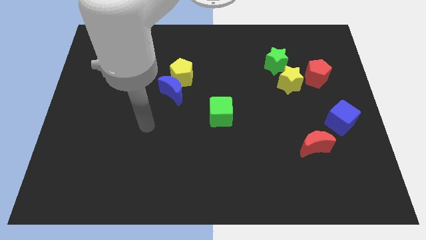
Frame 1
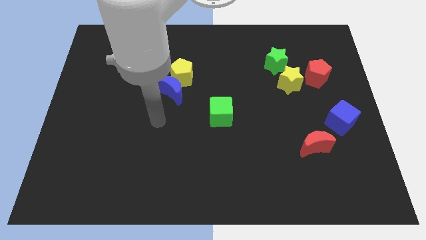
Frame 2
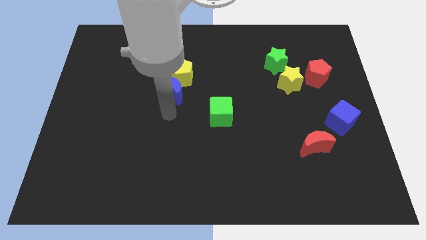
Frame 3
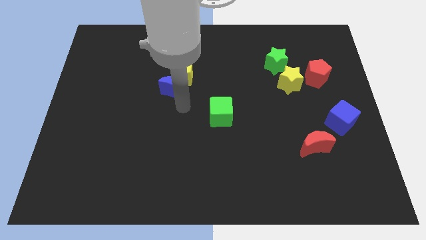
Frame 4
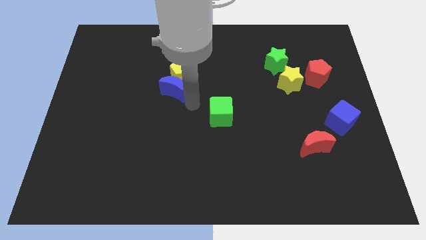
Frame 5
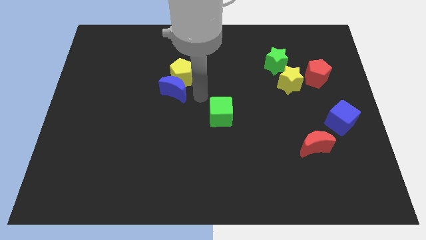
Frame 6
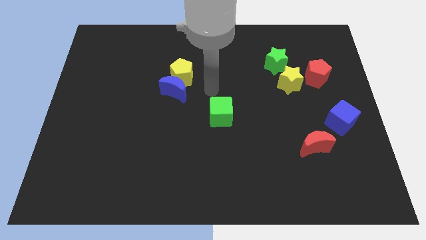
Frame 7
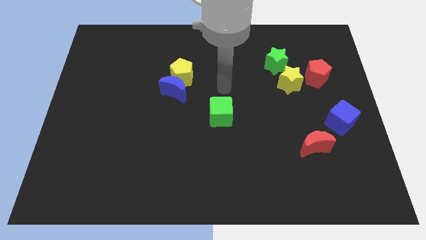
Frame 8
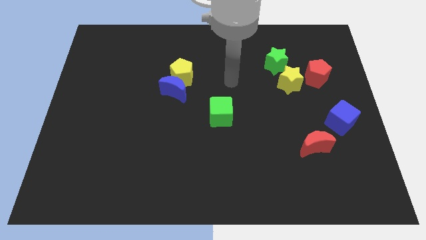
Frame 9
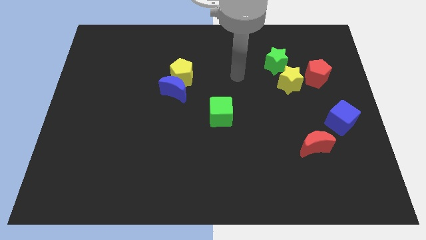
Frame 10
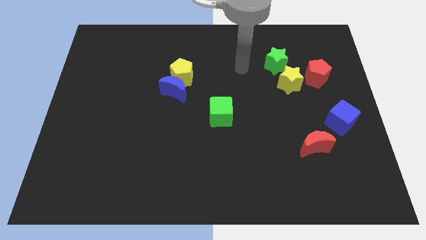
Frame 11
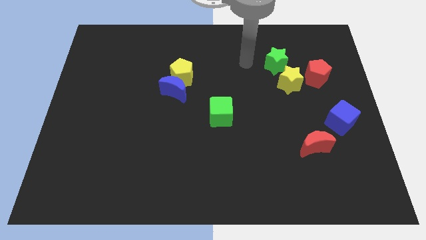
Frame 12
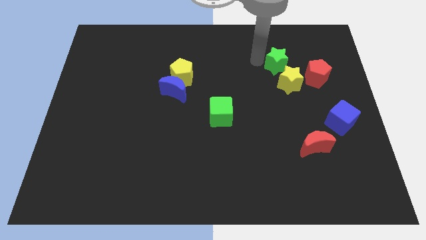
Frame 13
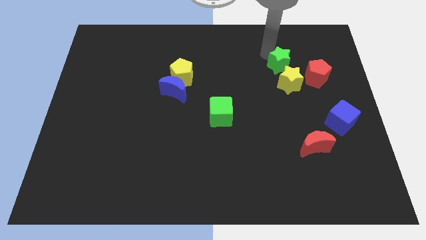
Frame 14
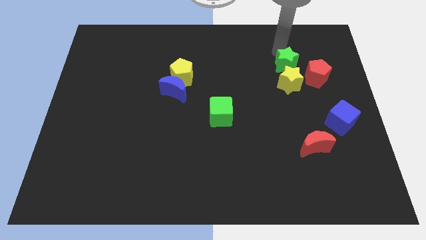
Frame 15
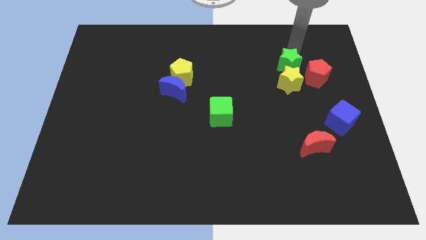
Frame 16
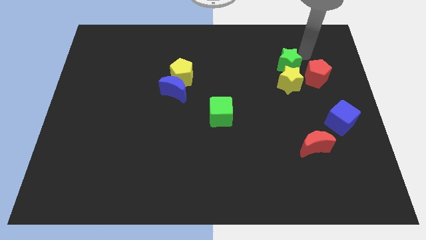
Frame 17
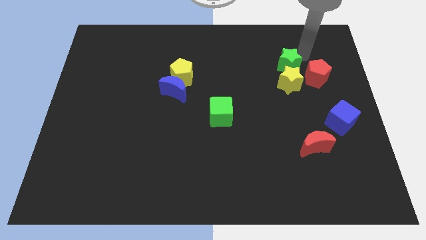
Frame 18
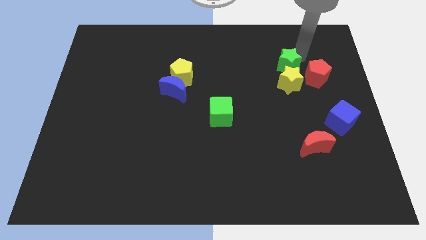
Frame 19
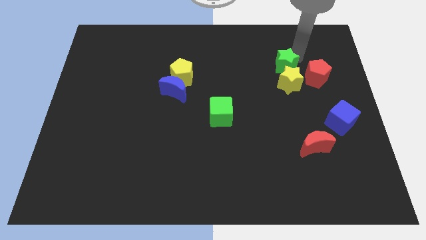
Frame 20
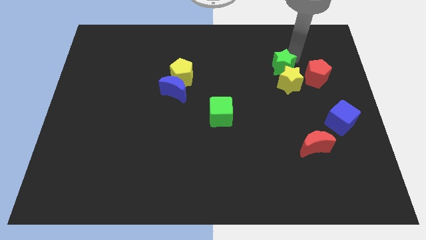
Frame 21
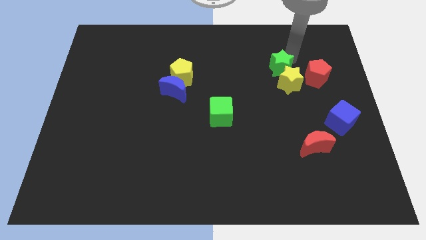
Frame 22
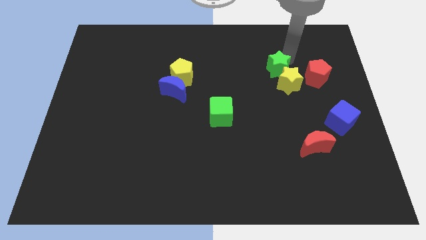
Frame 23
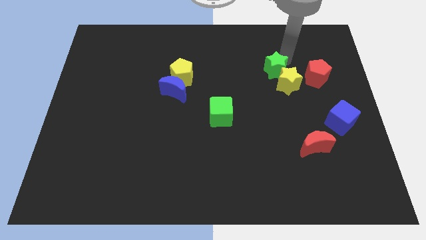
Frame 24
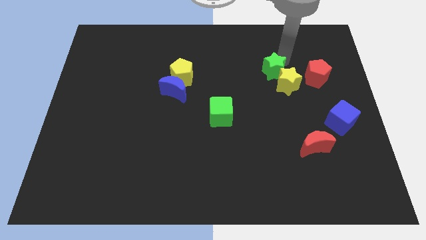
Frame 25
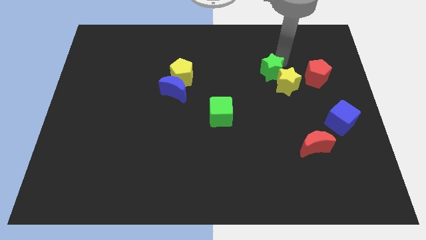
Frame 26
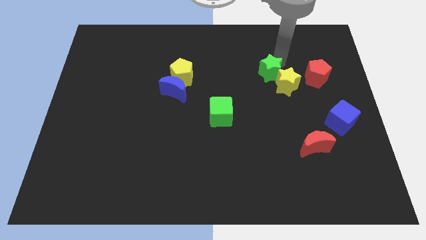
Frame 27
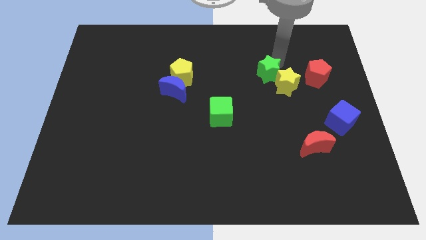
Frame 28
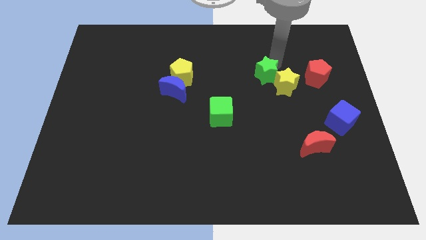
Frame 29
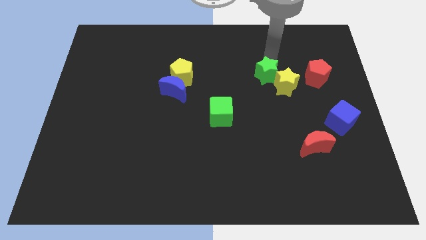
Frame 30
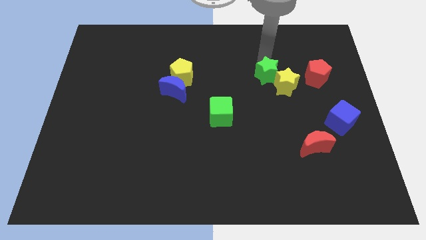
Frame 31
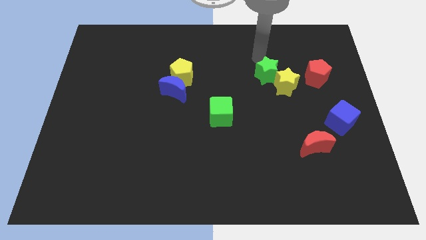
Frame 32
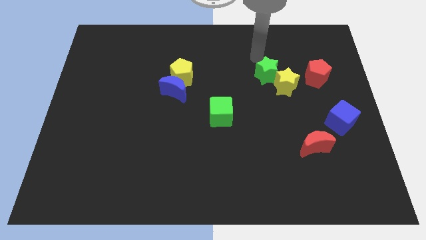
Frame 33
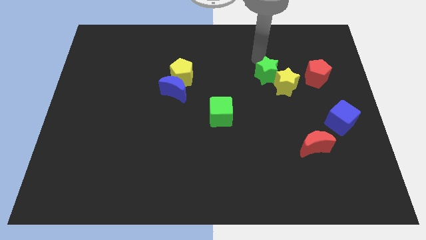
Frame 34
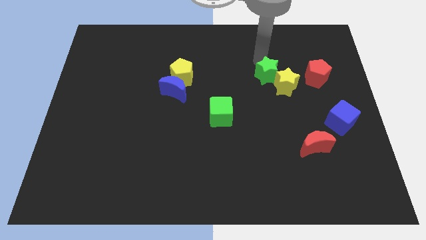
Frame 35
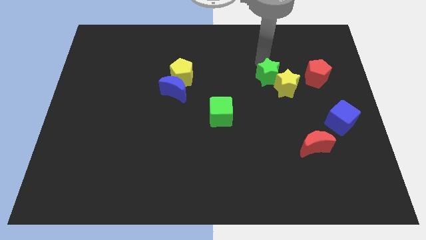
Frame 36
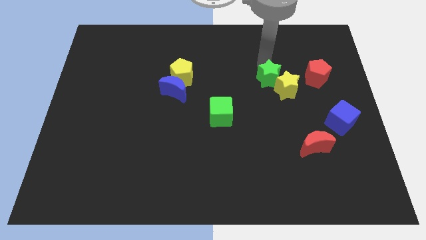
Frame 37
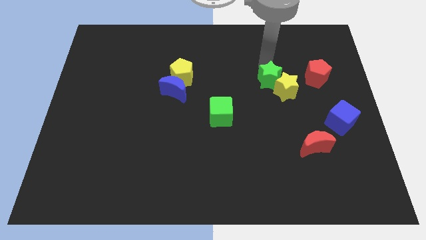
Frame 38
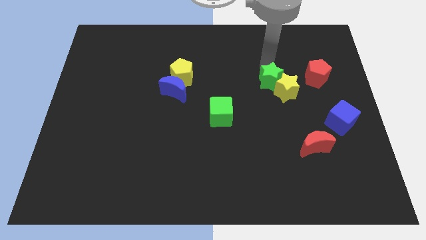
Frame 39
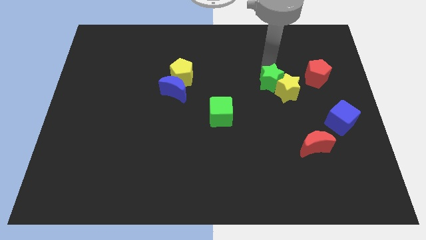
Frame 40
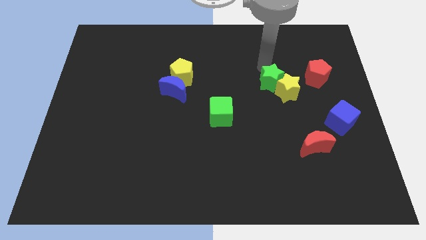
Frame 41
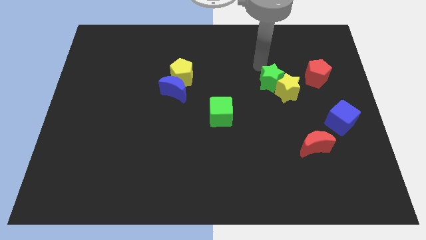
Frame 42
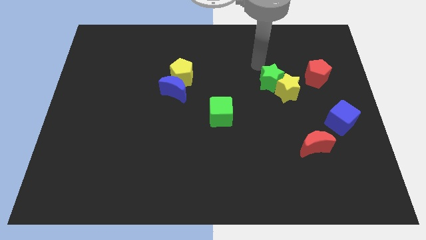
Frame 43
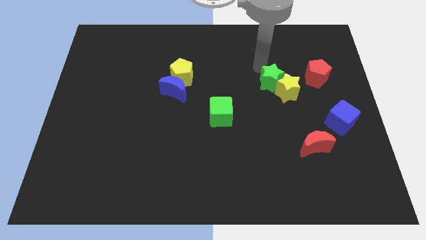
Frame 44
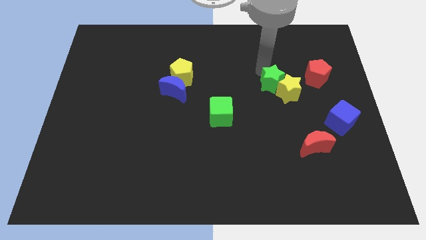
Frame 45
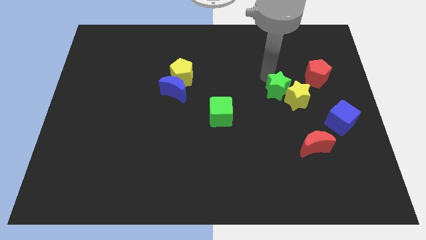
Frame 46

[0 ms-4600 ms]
slide the green star slightly down

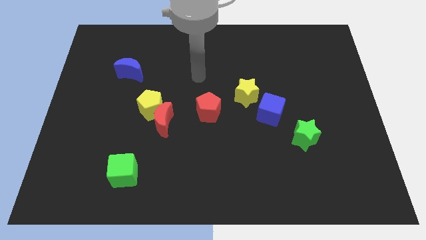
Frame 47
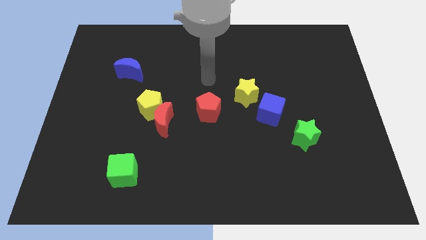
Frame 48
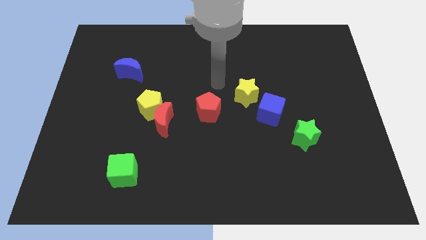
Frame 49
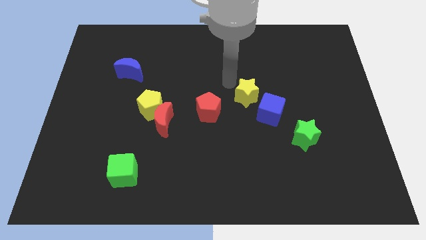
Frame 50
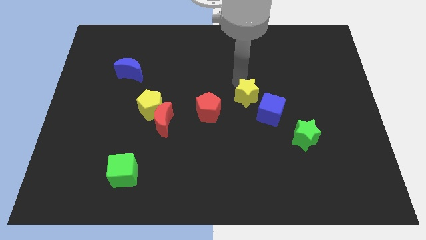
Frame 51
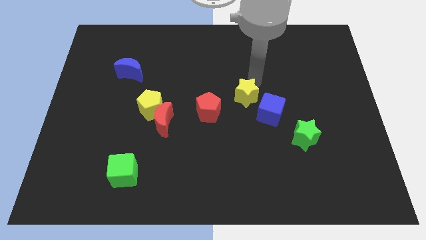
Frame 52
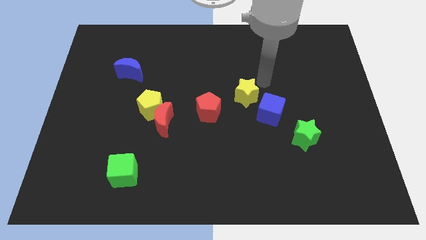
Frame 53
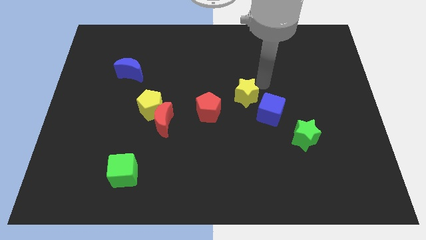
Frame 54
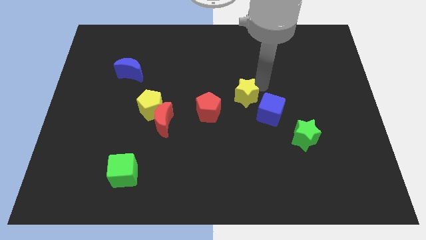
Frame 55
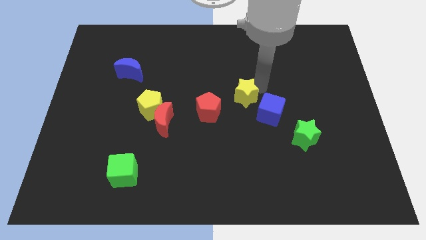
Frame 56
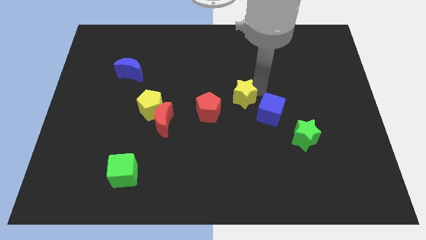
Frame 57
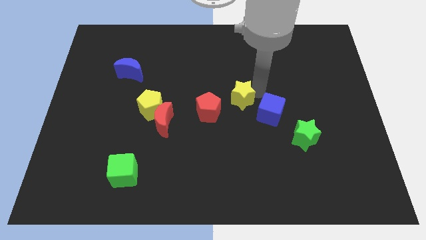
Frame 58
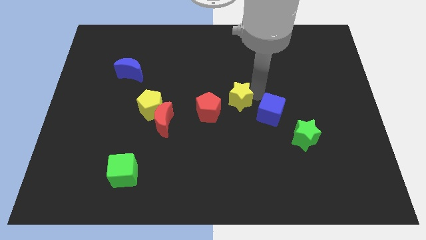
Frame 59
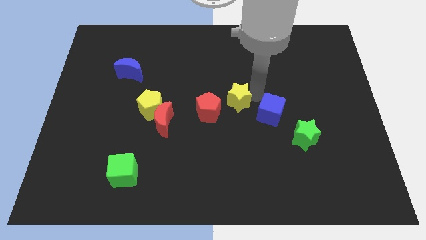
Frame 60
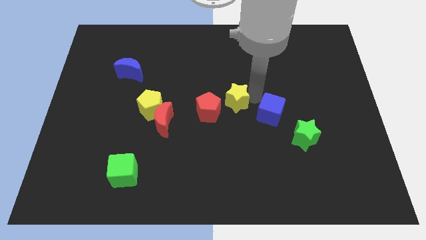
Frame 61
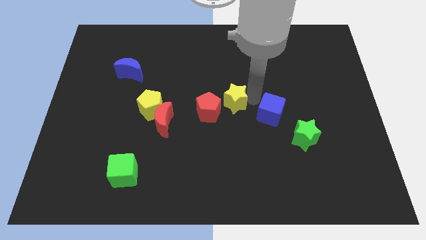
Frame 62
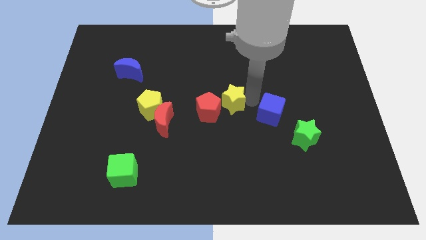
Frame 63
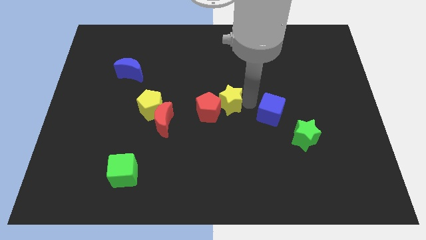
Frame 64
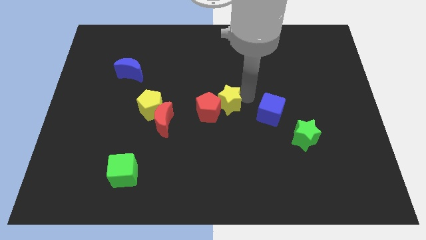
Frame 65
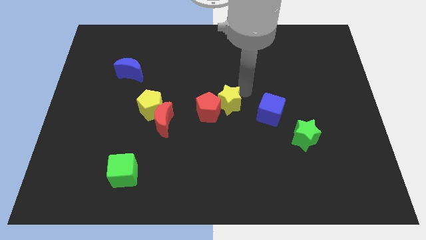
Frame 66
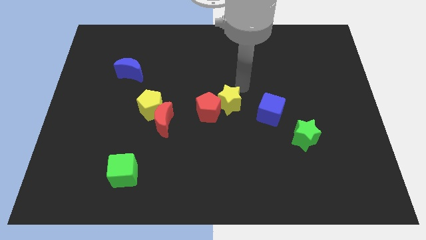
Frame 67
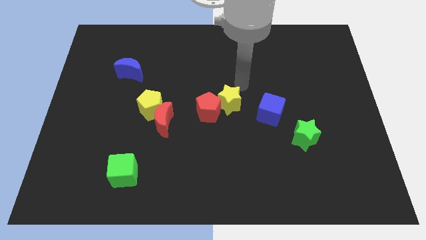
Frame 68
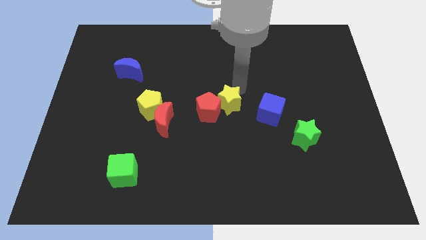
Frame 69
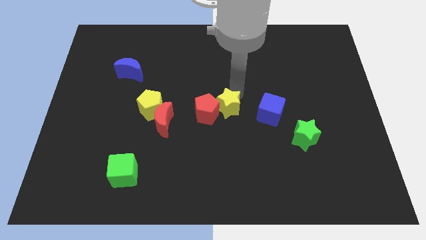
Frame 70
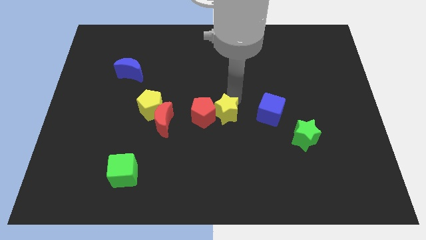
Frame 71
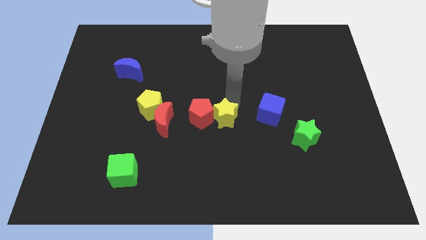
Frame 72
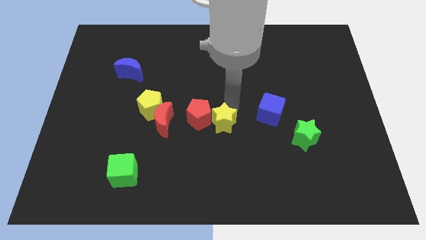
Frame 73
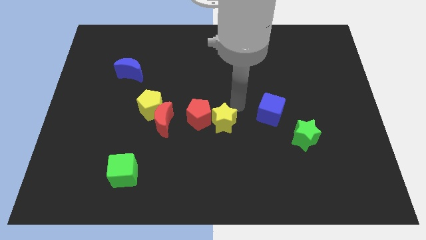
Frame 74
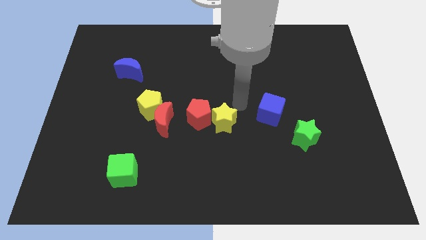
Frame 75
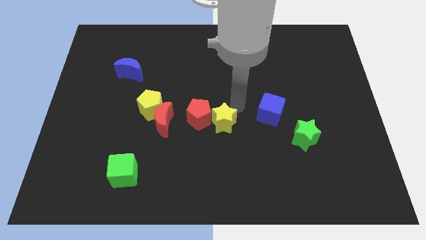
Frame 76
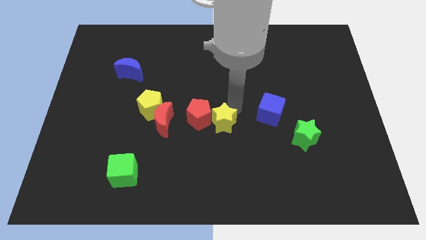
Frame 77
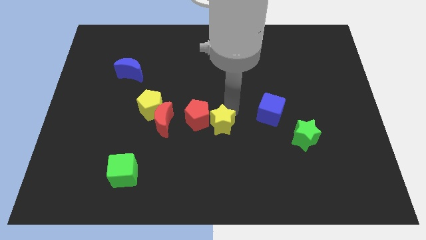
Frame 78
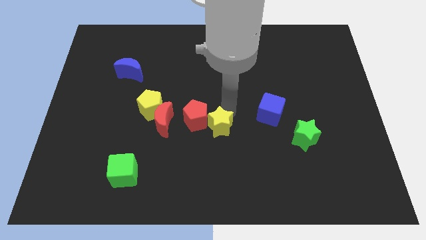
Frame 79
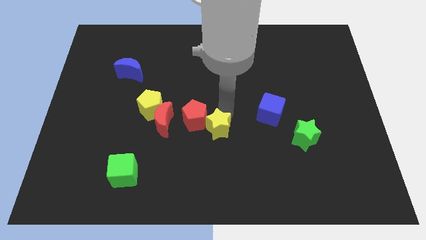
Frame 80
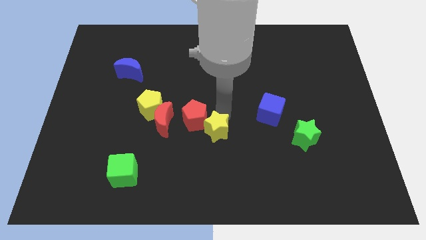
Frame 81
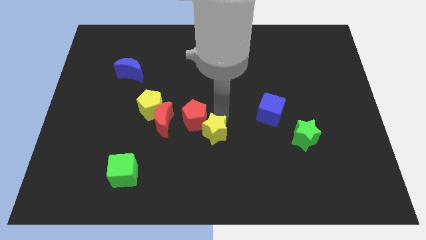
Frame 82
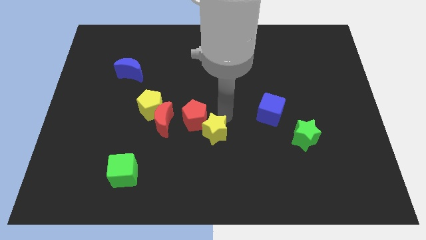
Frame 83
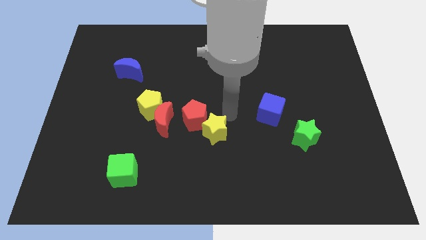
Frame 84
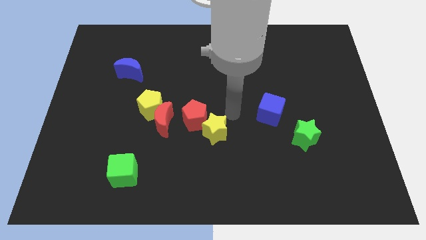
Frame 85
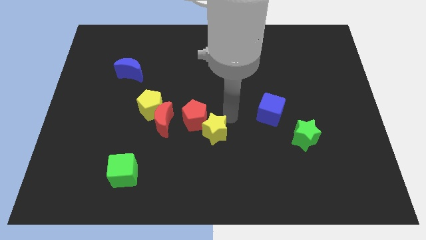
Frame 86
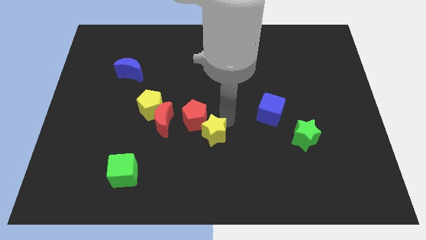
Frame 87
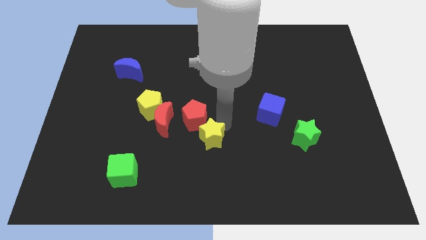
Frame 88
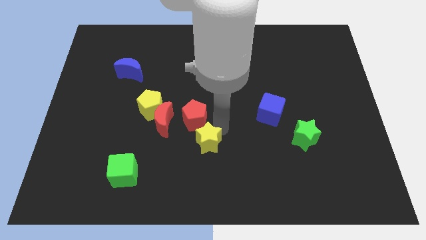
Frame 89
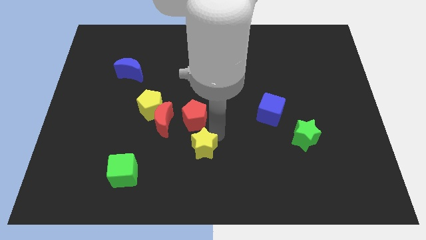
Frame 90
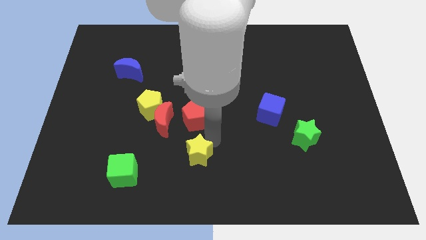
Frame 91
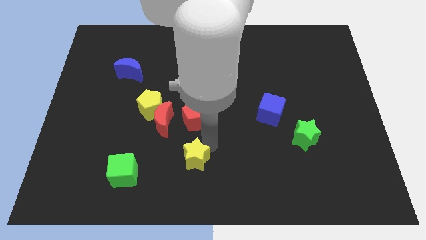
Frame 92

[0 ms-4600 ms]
move the yellow star diagonally downwards and left
